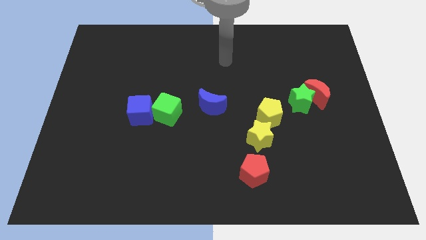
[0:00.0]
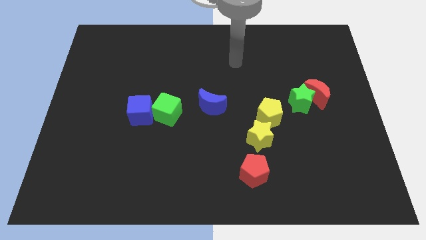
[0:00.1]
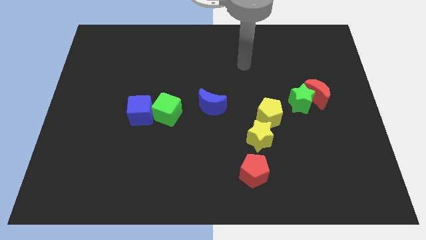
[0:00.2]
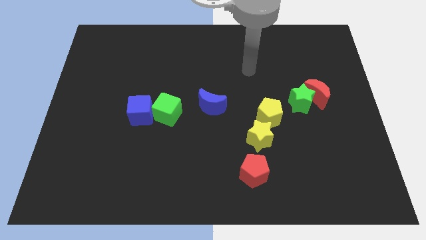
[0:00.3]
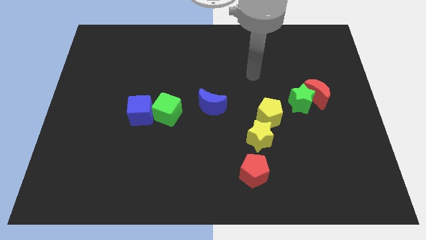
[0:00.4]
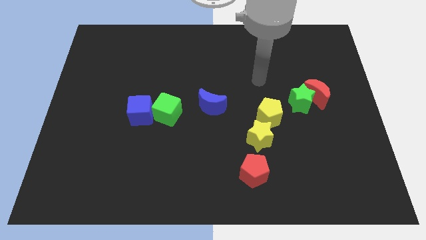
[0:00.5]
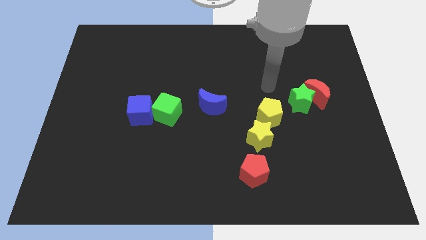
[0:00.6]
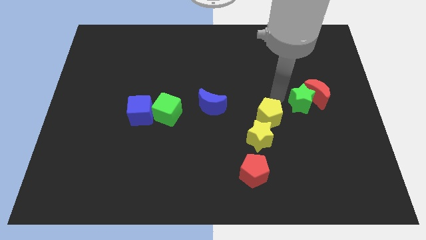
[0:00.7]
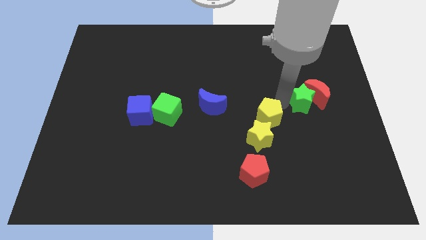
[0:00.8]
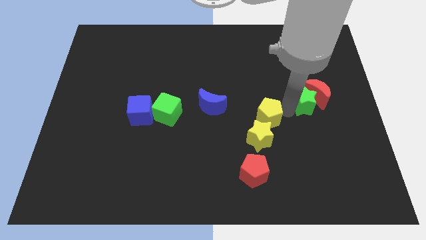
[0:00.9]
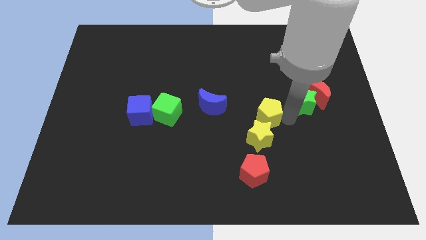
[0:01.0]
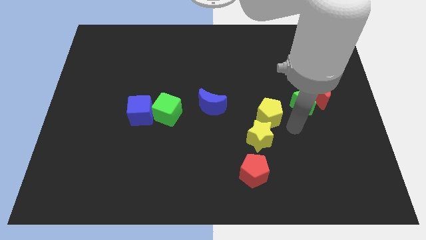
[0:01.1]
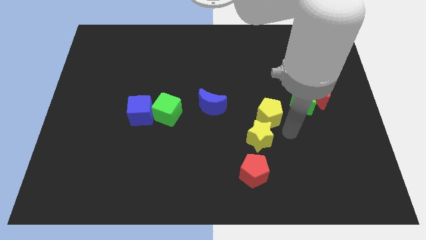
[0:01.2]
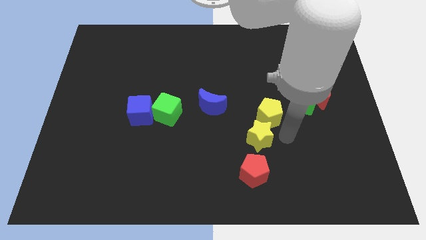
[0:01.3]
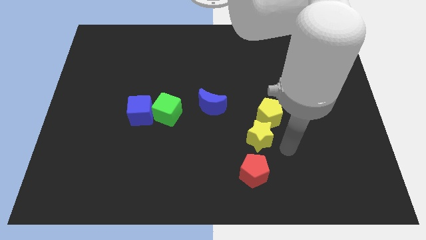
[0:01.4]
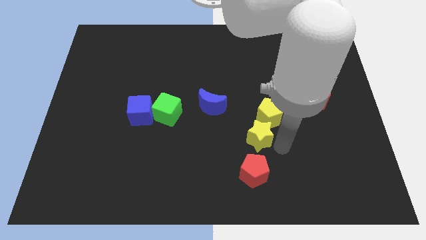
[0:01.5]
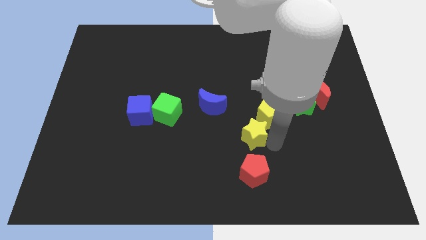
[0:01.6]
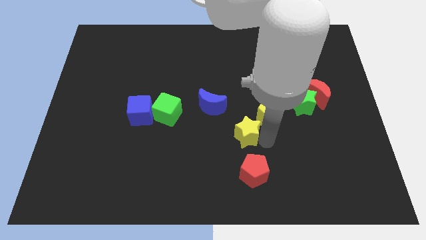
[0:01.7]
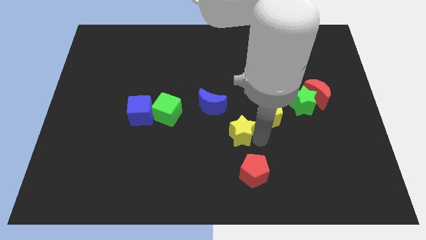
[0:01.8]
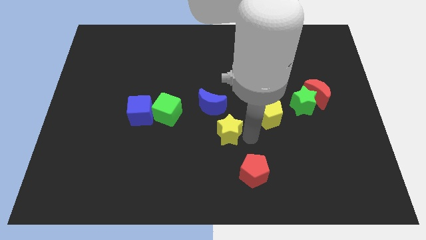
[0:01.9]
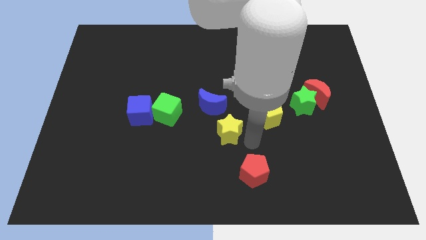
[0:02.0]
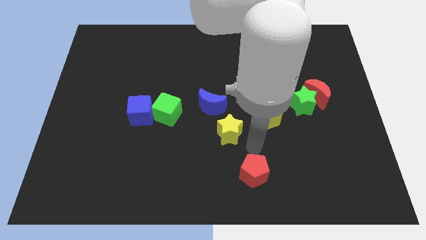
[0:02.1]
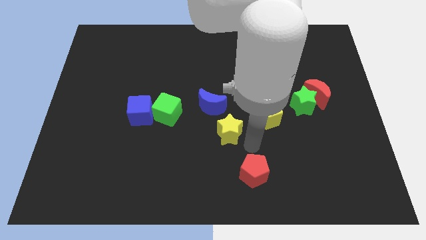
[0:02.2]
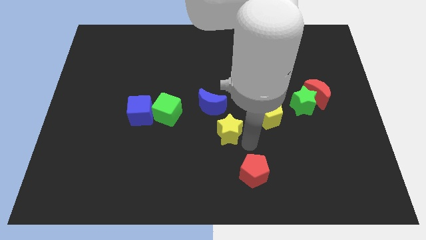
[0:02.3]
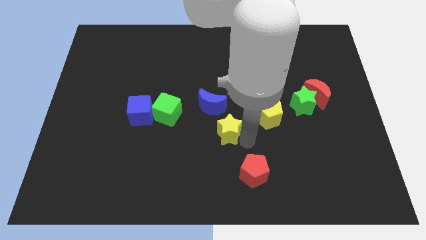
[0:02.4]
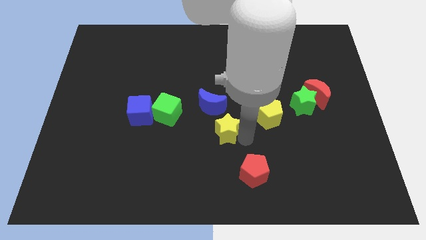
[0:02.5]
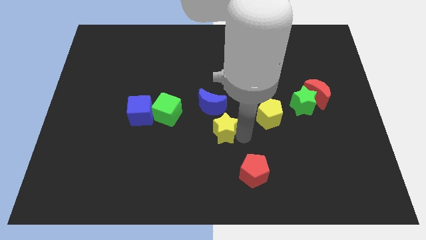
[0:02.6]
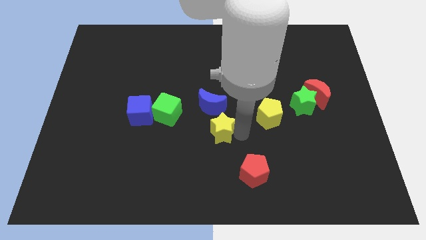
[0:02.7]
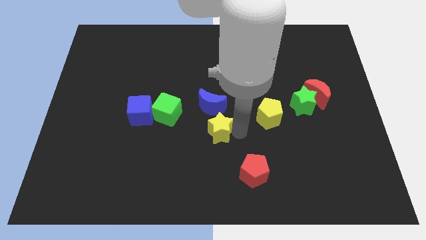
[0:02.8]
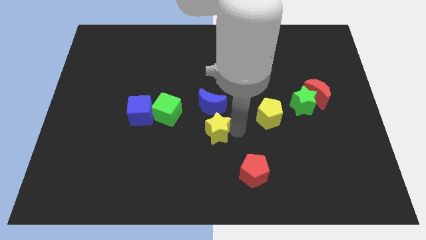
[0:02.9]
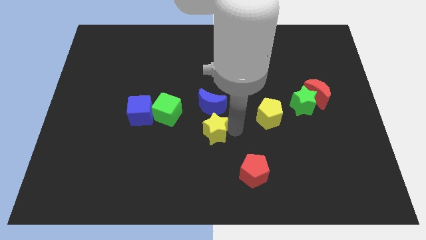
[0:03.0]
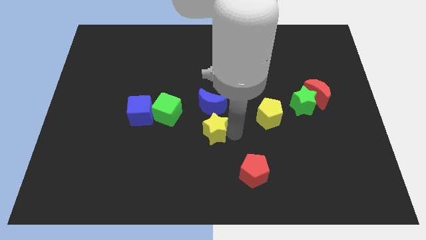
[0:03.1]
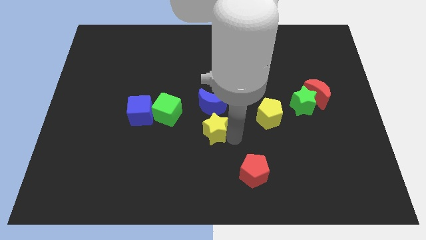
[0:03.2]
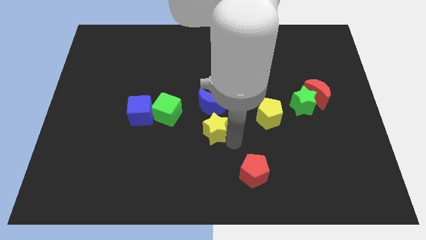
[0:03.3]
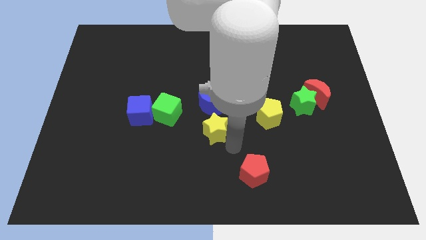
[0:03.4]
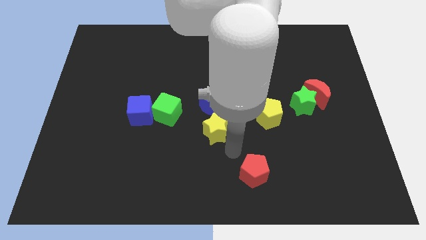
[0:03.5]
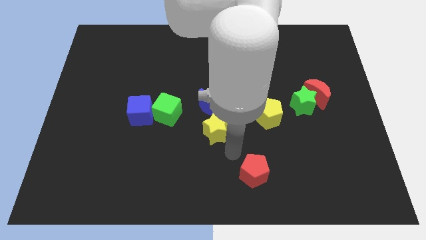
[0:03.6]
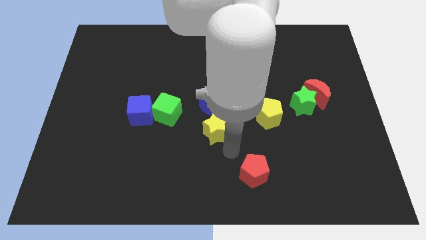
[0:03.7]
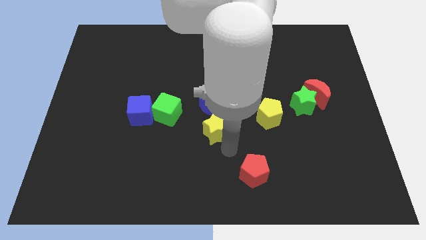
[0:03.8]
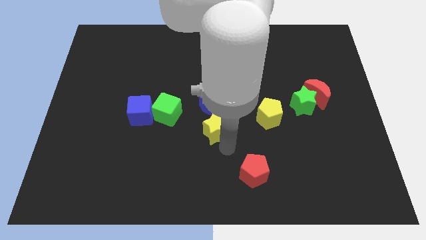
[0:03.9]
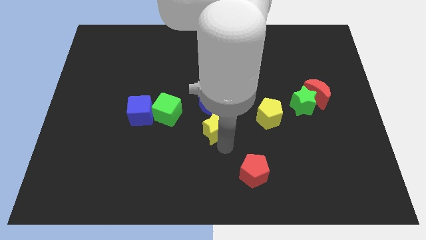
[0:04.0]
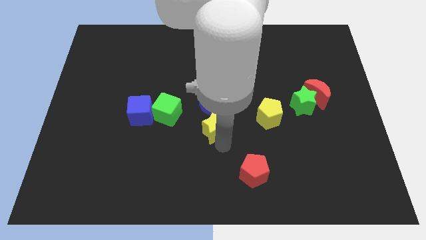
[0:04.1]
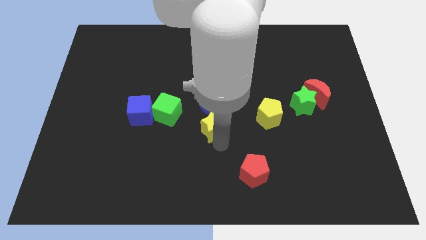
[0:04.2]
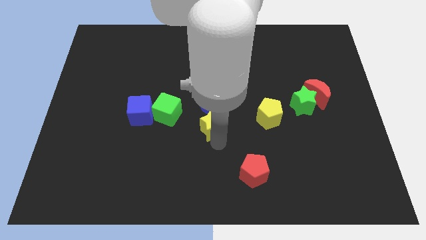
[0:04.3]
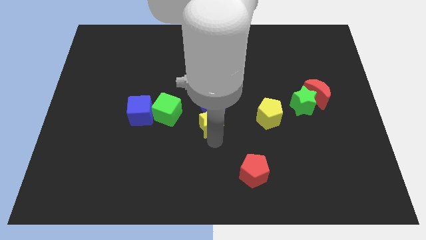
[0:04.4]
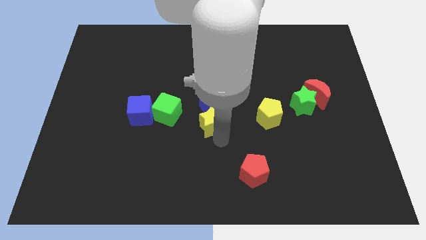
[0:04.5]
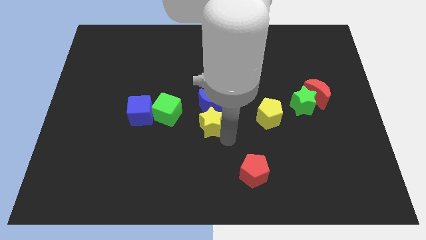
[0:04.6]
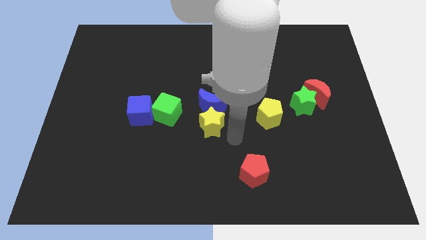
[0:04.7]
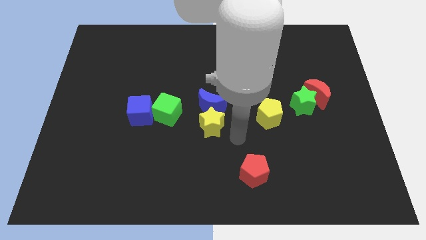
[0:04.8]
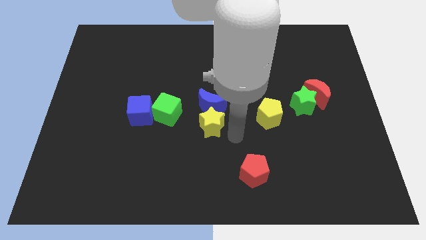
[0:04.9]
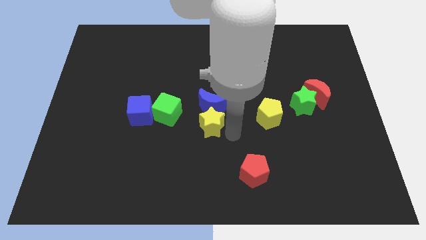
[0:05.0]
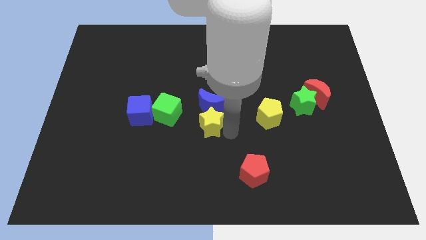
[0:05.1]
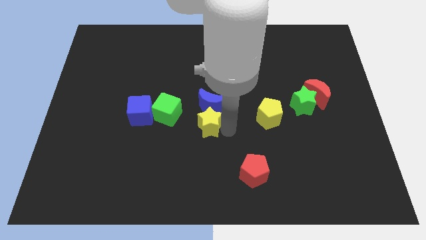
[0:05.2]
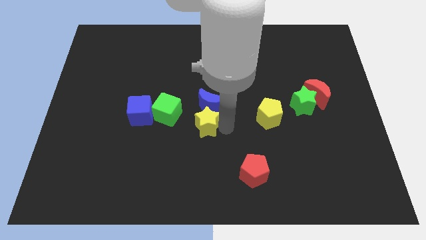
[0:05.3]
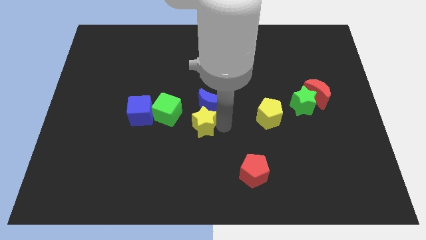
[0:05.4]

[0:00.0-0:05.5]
push the yellow star to the right of the blue cube

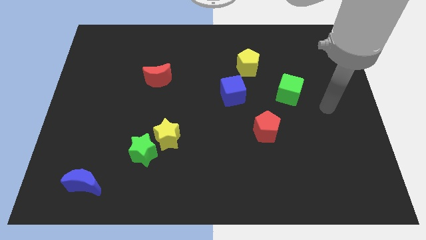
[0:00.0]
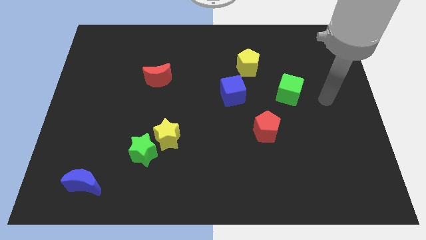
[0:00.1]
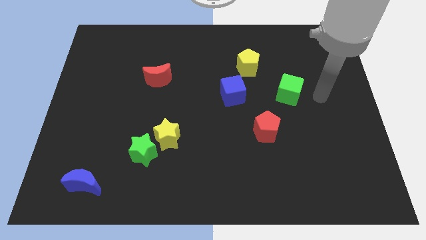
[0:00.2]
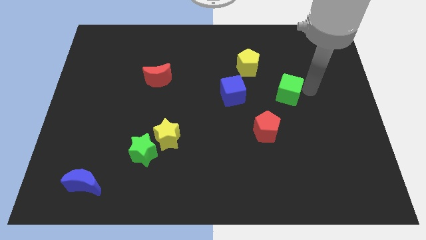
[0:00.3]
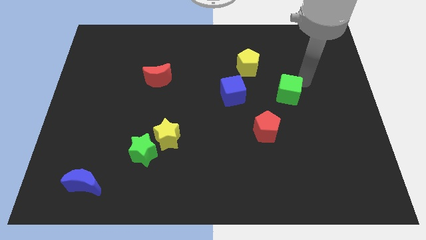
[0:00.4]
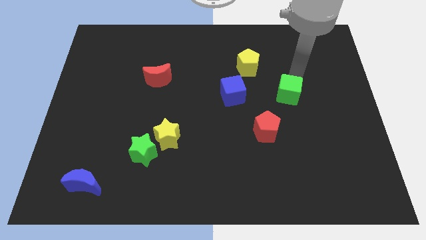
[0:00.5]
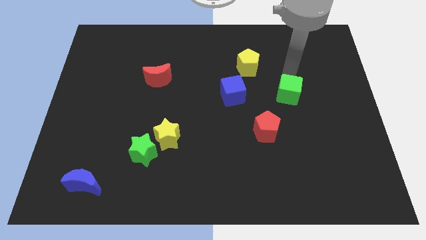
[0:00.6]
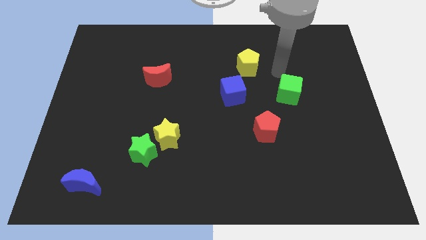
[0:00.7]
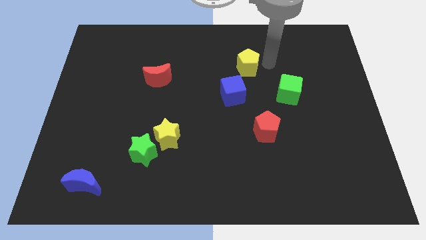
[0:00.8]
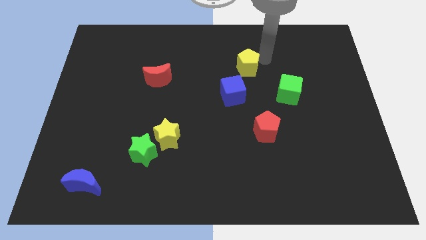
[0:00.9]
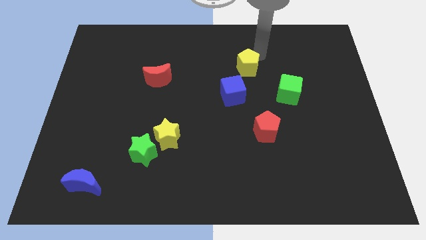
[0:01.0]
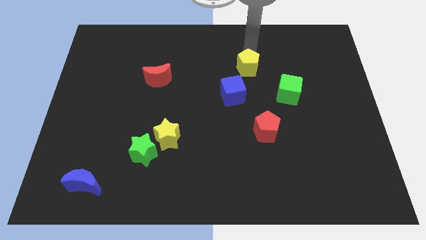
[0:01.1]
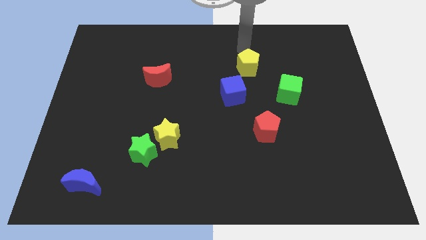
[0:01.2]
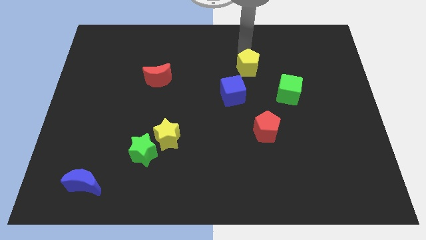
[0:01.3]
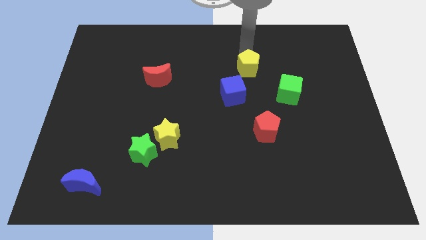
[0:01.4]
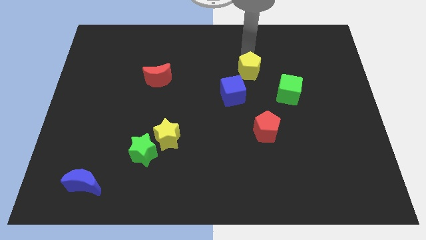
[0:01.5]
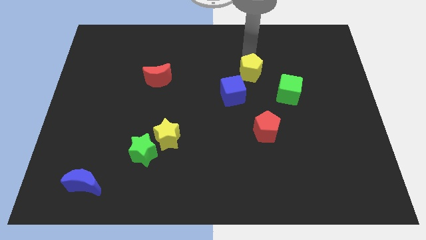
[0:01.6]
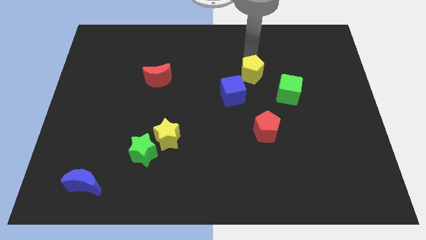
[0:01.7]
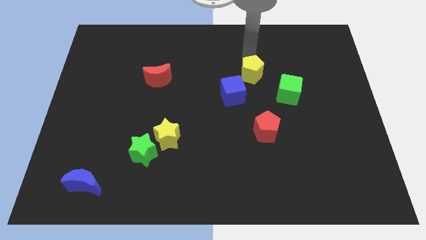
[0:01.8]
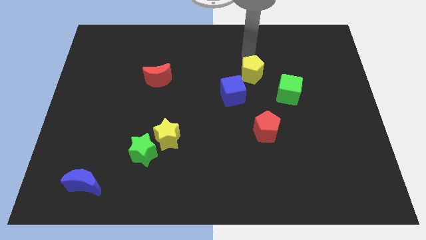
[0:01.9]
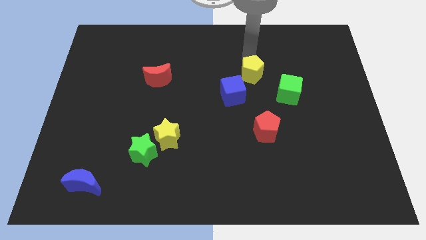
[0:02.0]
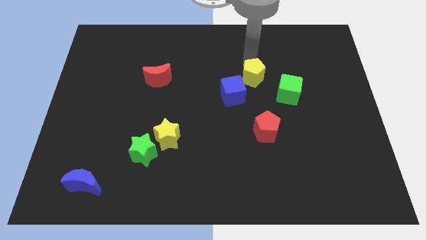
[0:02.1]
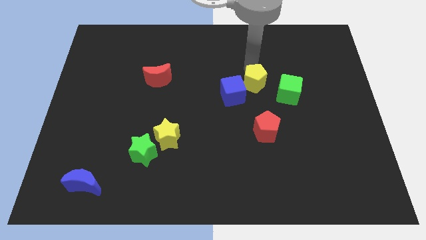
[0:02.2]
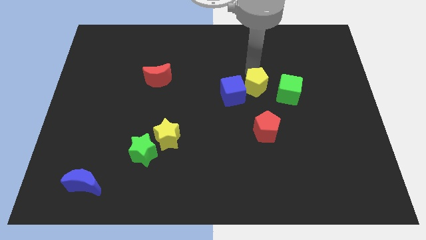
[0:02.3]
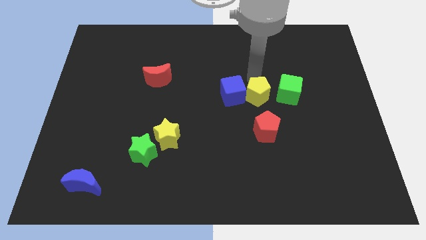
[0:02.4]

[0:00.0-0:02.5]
move the yellow pentagon to the bottom right side of the blue cube
